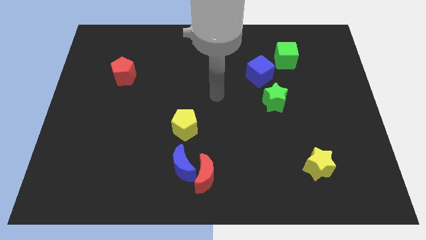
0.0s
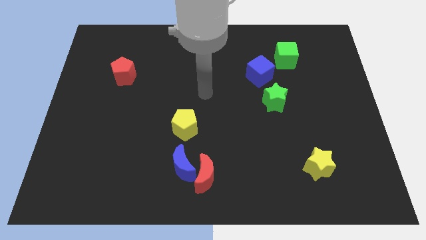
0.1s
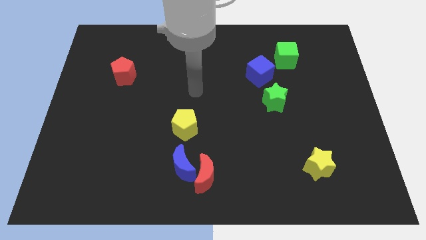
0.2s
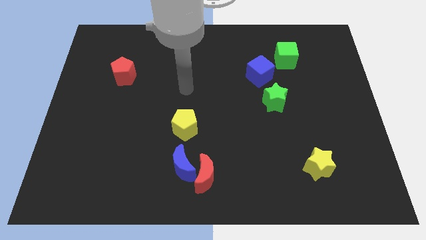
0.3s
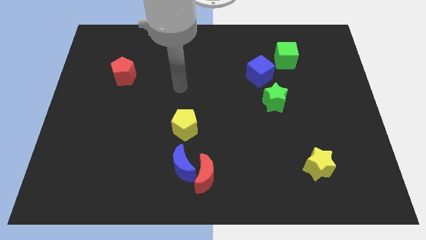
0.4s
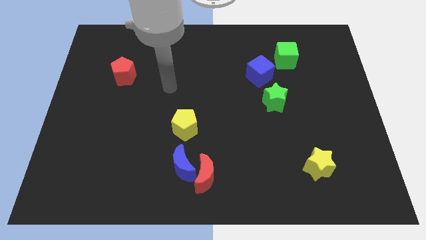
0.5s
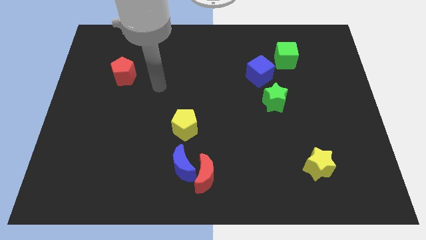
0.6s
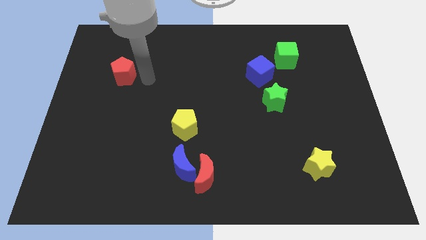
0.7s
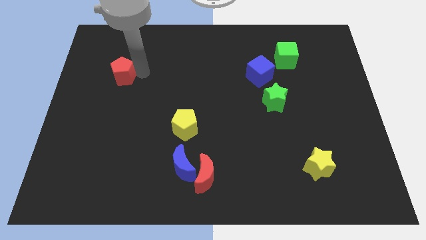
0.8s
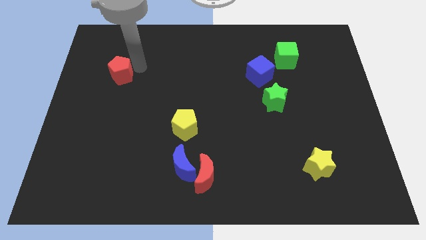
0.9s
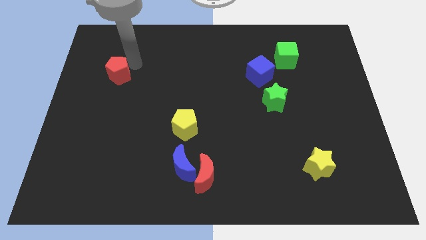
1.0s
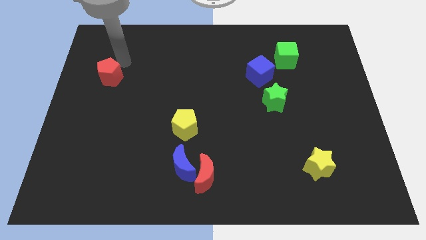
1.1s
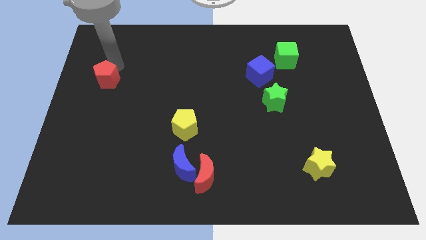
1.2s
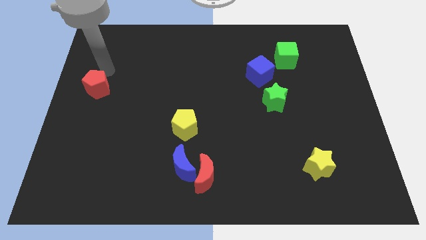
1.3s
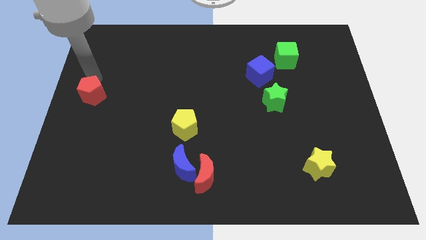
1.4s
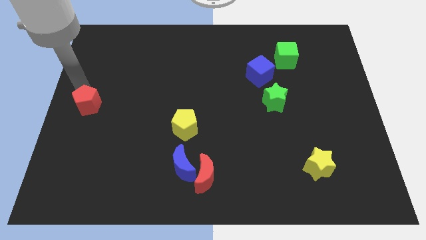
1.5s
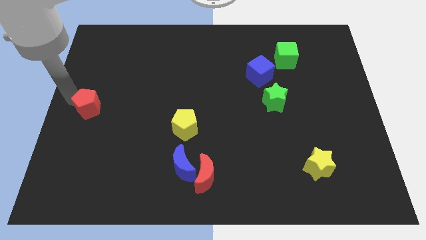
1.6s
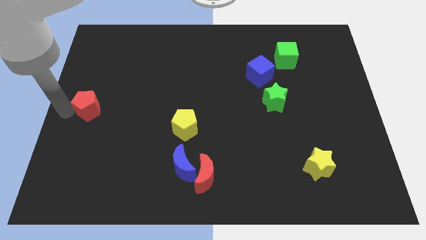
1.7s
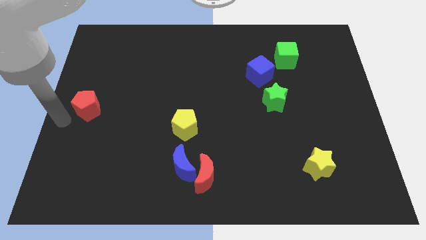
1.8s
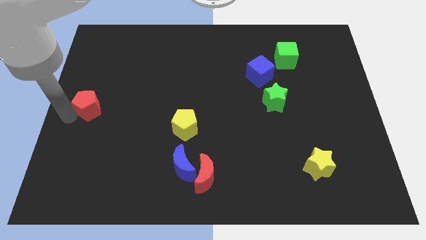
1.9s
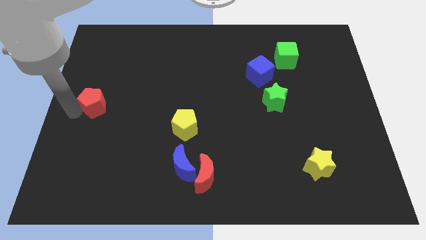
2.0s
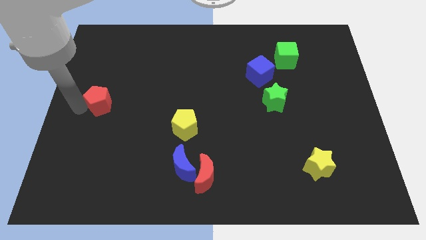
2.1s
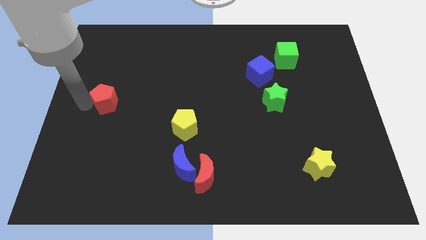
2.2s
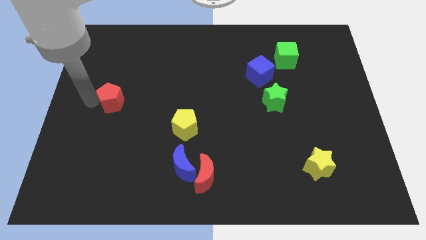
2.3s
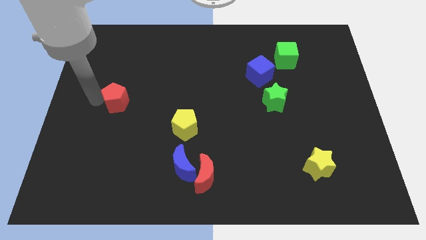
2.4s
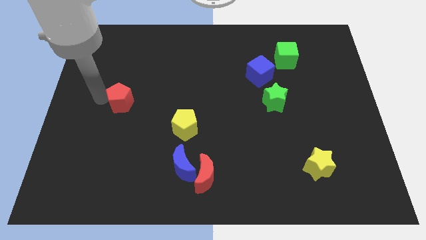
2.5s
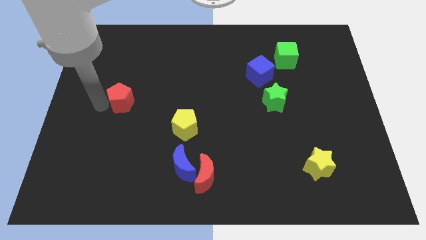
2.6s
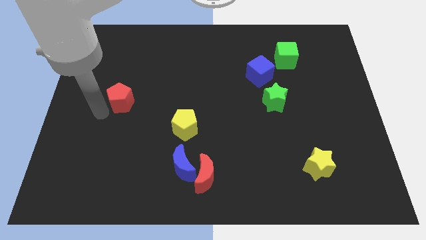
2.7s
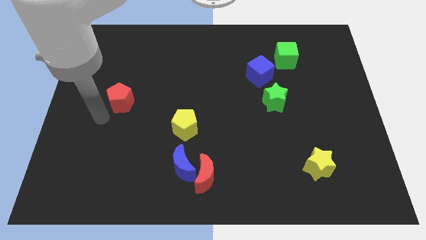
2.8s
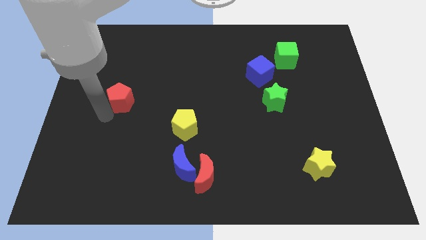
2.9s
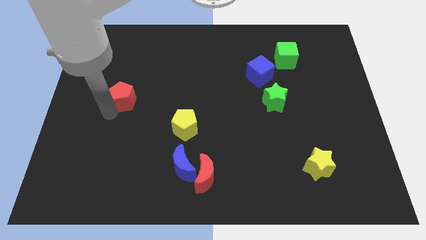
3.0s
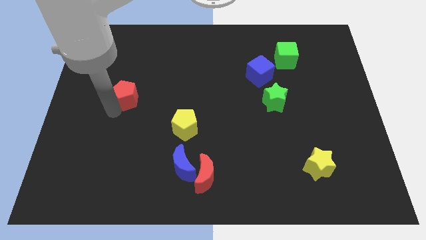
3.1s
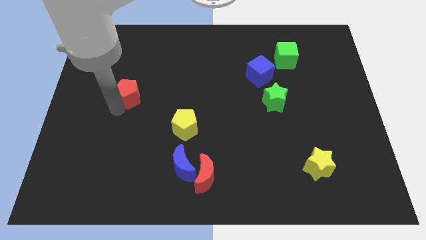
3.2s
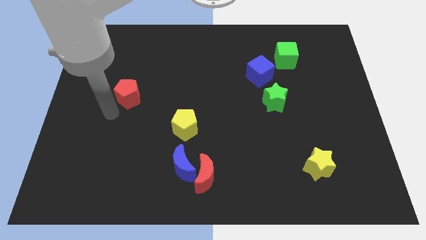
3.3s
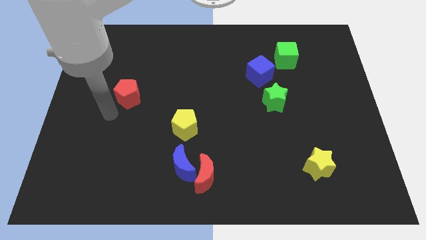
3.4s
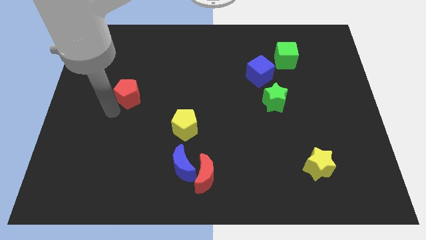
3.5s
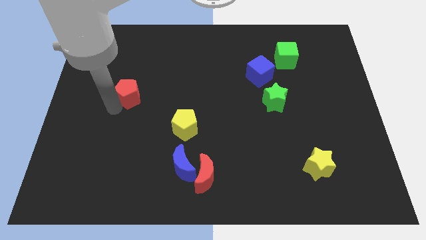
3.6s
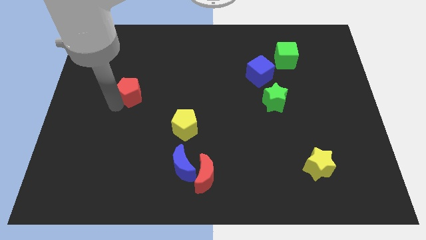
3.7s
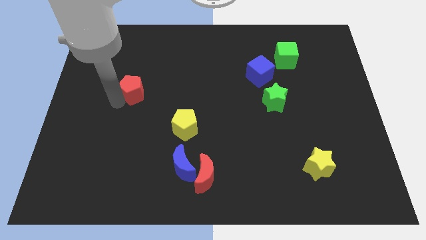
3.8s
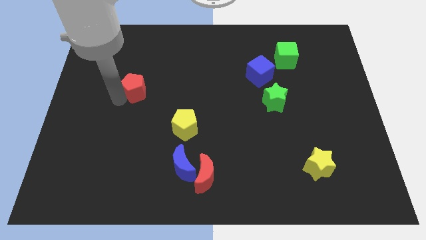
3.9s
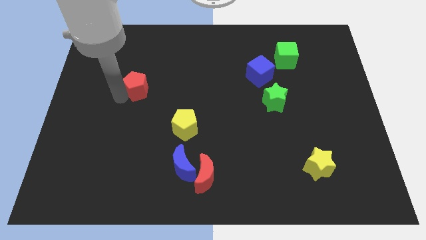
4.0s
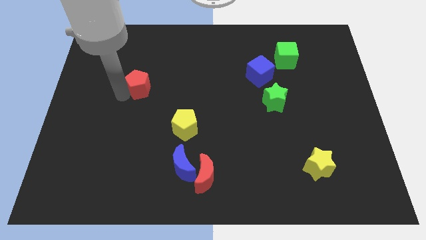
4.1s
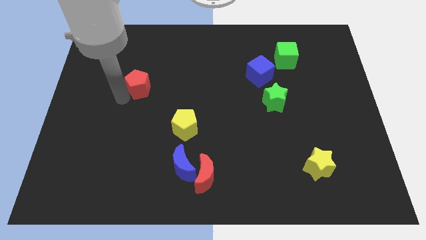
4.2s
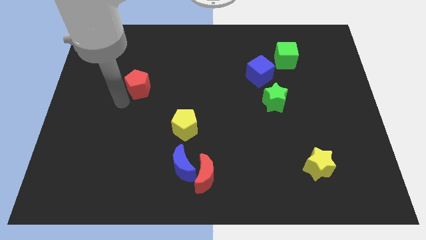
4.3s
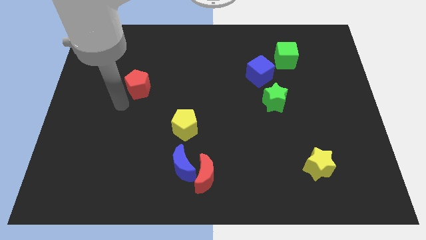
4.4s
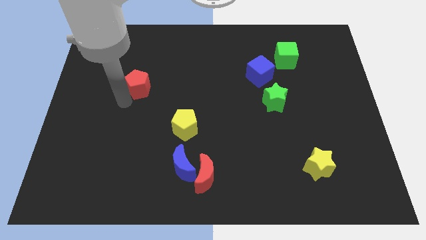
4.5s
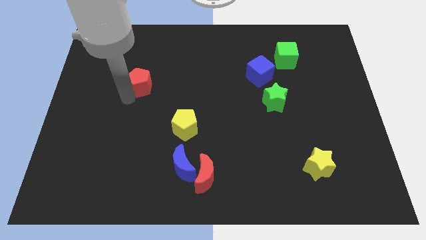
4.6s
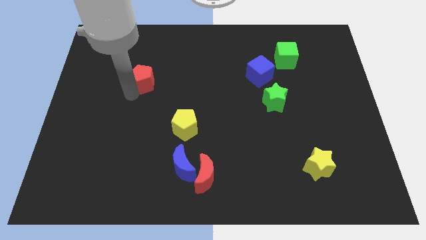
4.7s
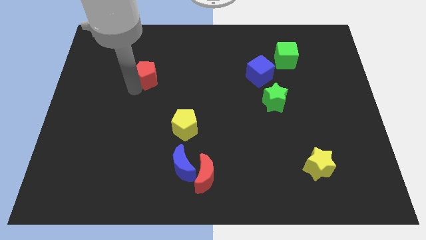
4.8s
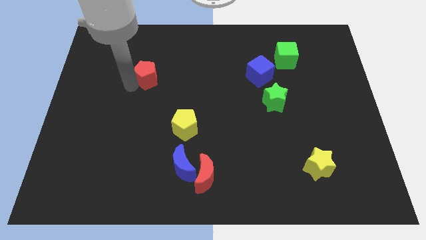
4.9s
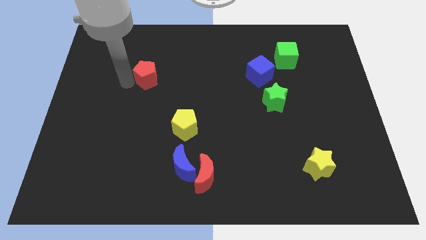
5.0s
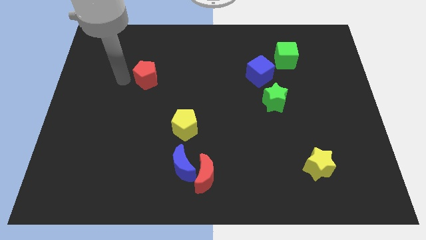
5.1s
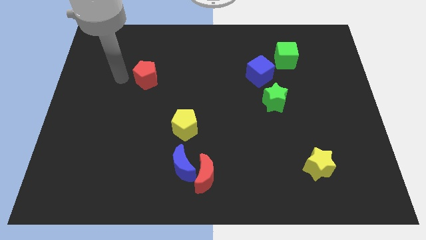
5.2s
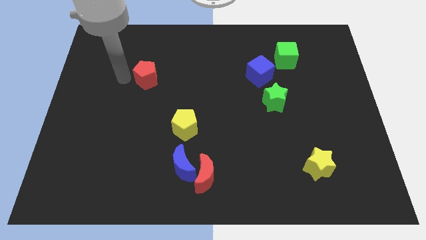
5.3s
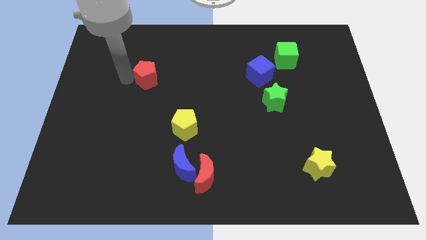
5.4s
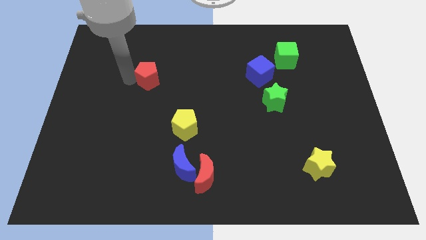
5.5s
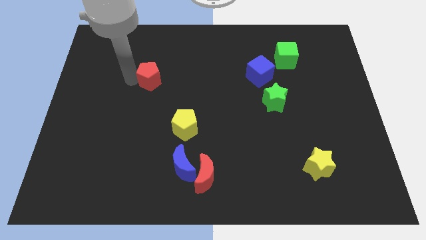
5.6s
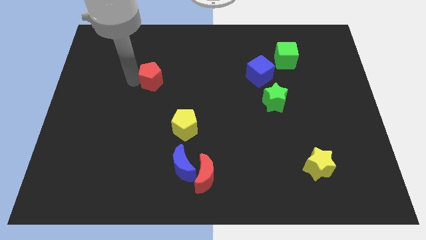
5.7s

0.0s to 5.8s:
slightly slide the red pentagon to the right

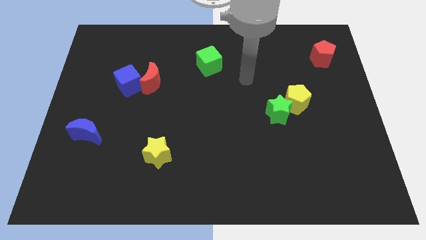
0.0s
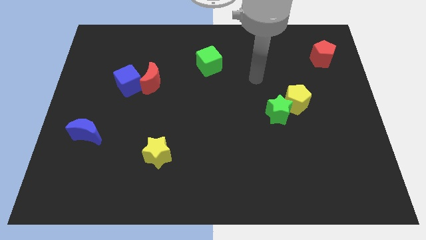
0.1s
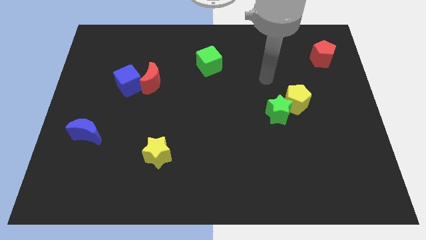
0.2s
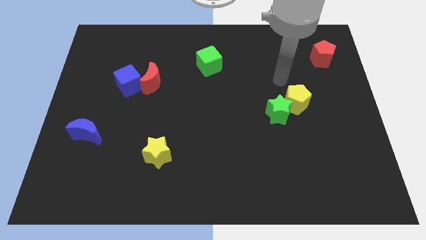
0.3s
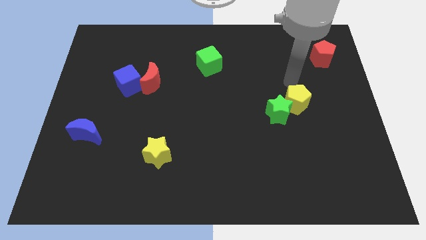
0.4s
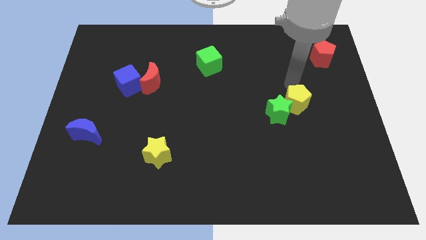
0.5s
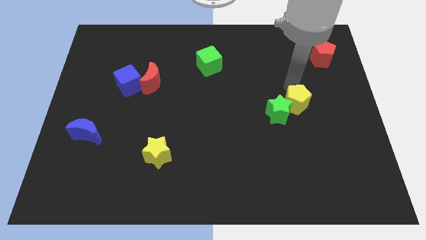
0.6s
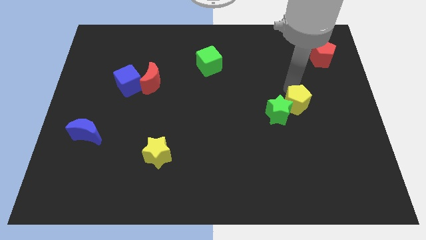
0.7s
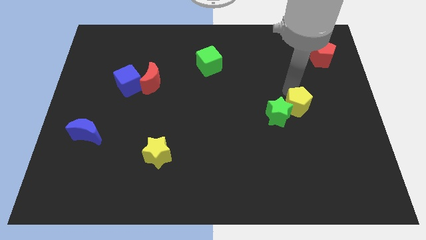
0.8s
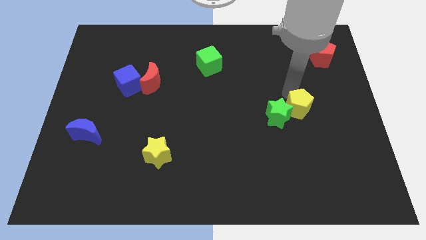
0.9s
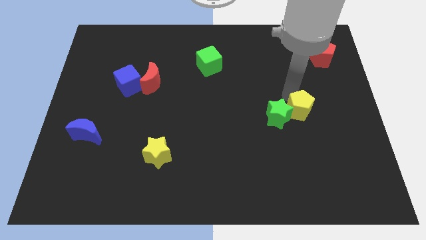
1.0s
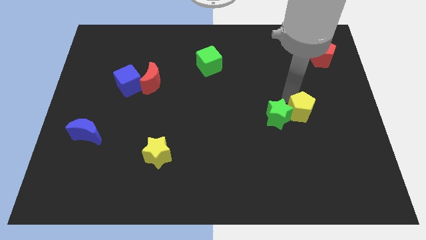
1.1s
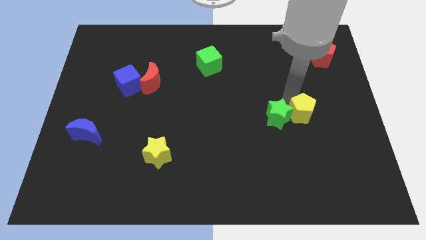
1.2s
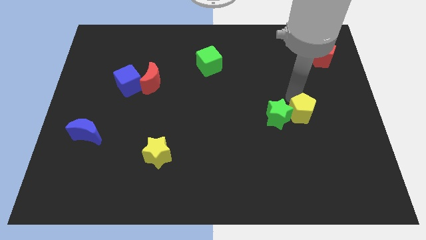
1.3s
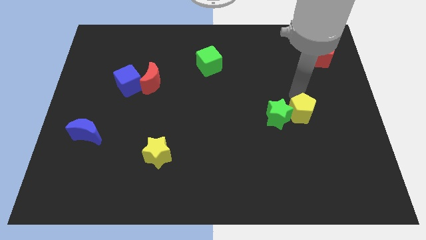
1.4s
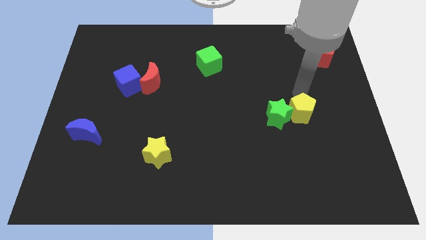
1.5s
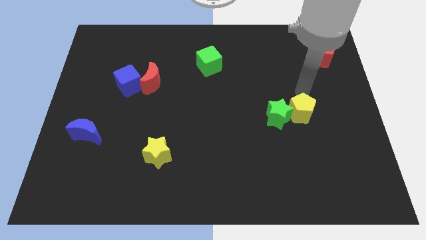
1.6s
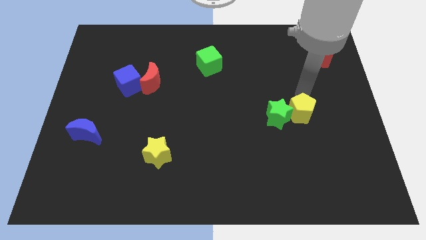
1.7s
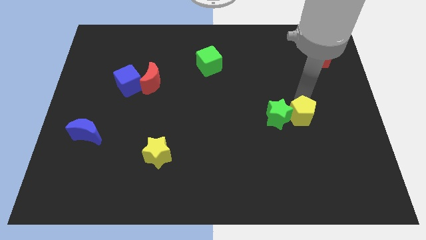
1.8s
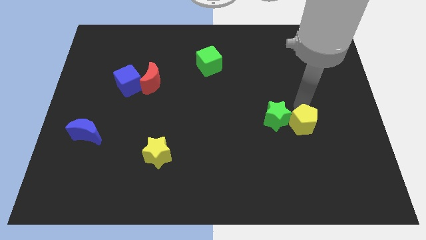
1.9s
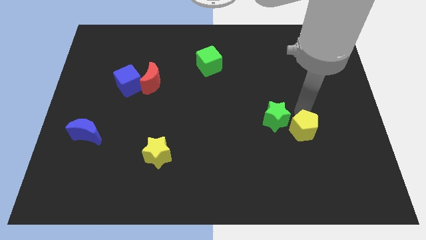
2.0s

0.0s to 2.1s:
slide the yellow pentagon slightly downwards

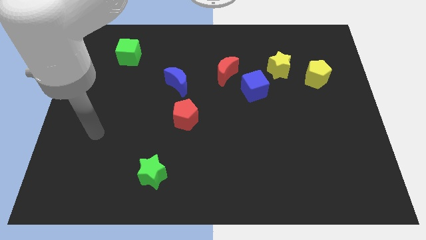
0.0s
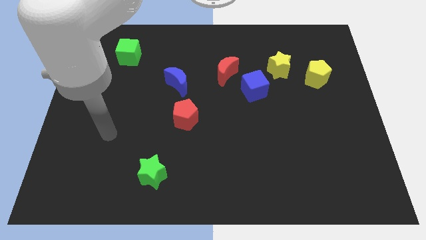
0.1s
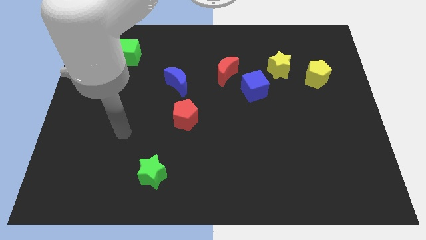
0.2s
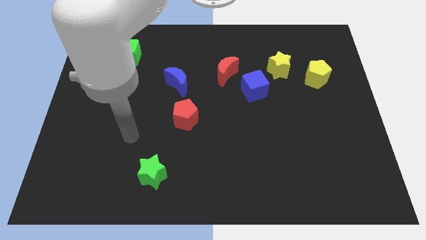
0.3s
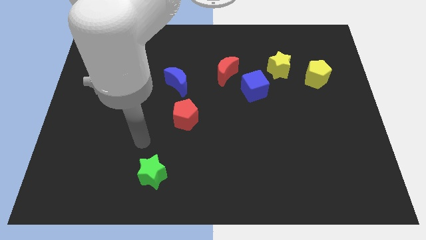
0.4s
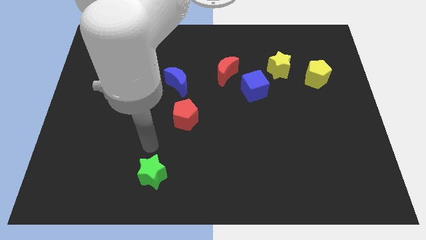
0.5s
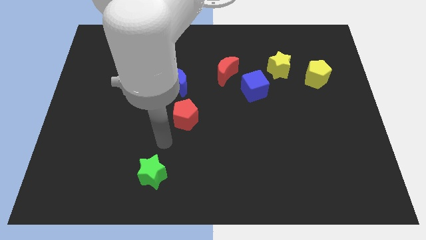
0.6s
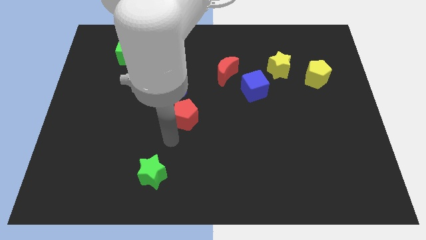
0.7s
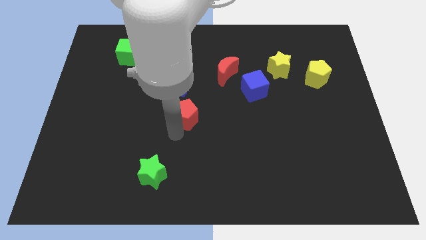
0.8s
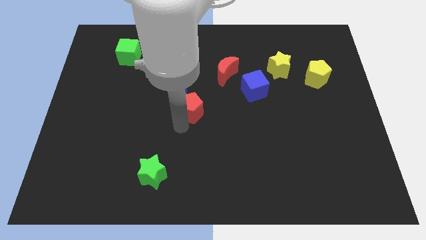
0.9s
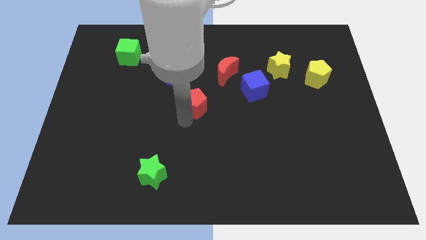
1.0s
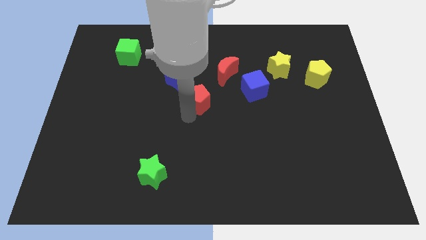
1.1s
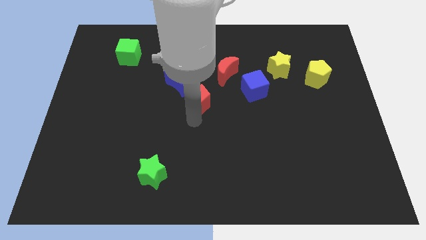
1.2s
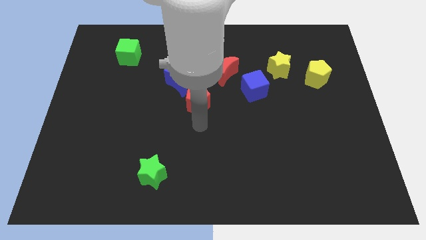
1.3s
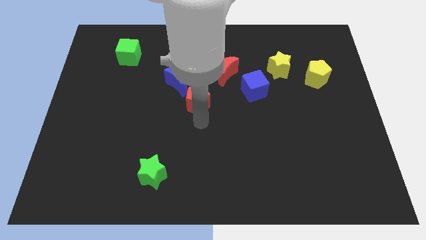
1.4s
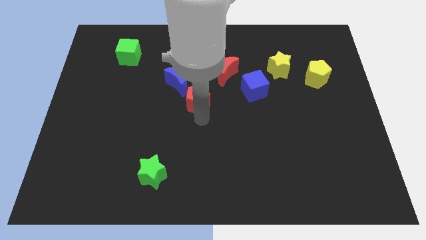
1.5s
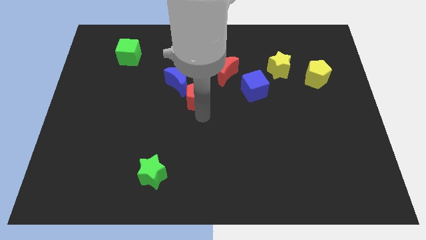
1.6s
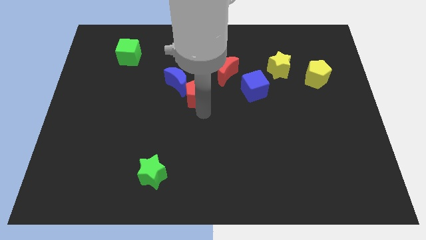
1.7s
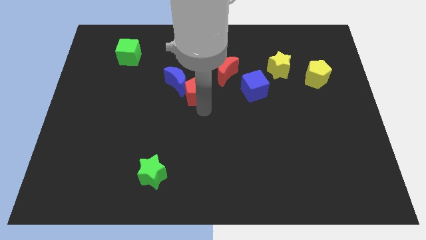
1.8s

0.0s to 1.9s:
slightly slide the red pentagon up
